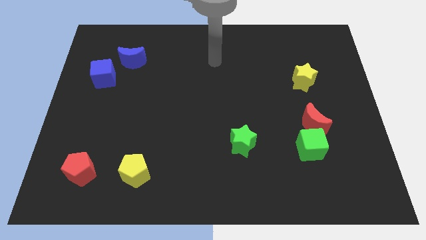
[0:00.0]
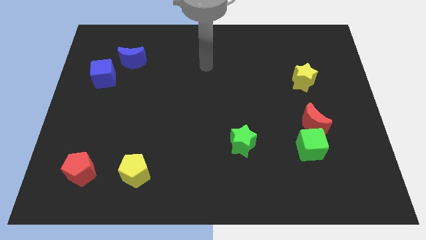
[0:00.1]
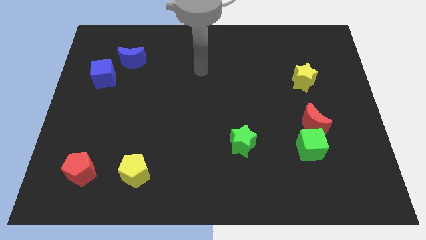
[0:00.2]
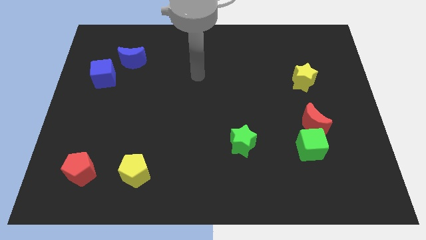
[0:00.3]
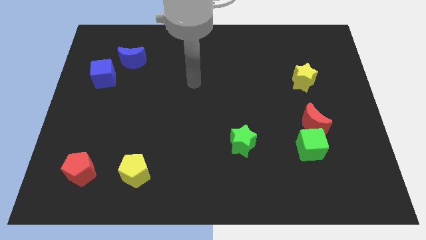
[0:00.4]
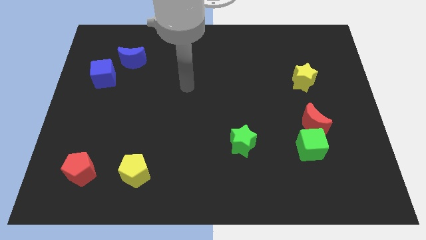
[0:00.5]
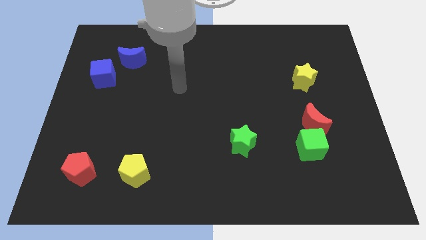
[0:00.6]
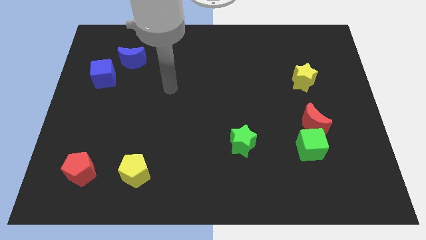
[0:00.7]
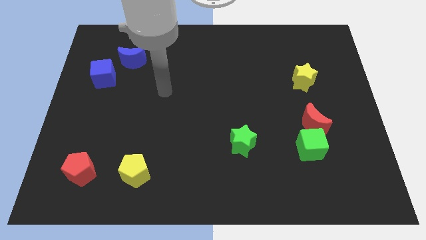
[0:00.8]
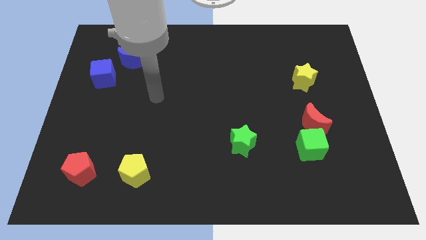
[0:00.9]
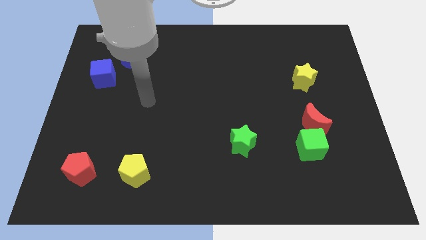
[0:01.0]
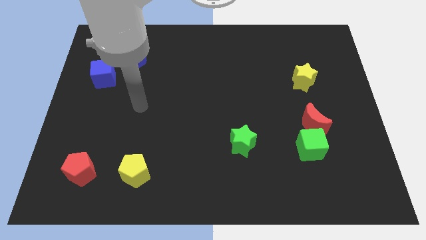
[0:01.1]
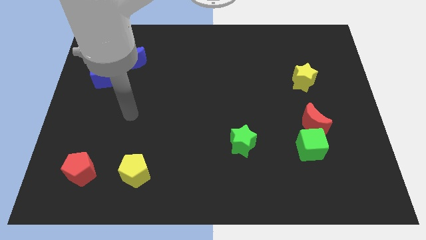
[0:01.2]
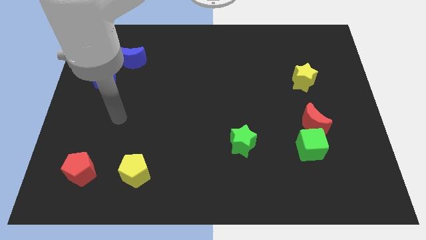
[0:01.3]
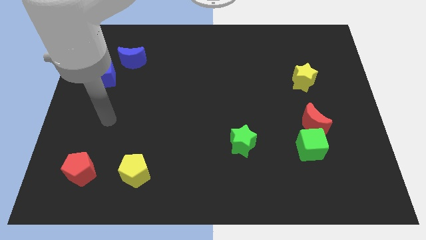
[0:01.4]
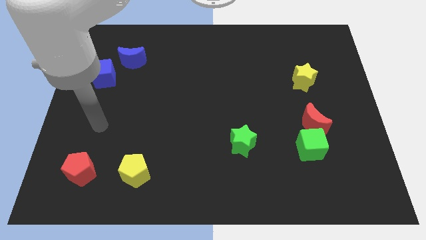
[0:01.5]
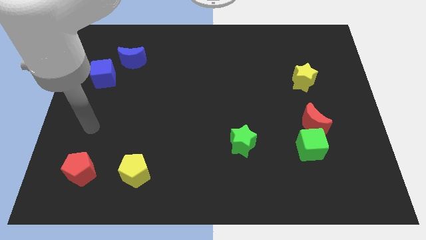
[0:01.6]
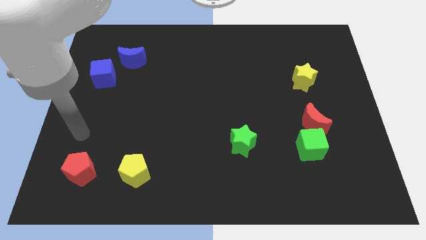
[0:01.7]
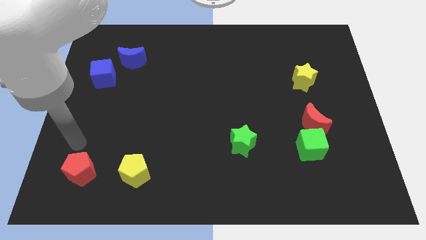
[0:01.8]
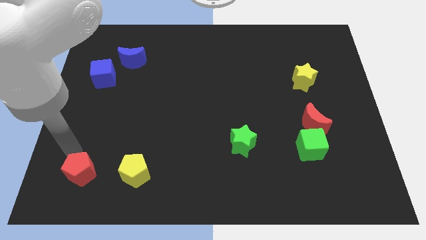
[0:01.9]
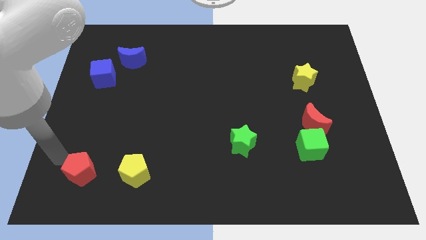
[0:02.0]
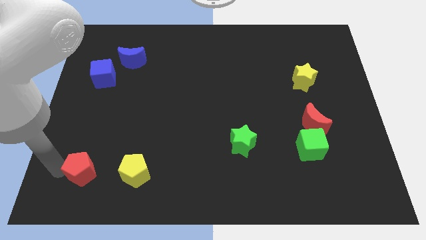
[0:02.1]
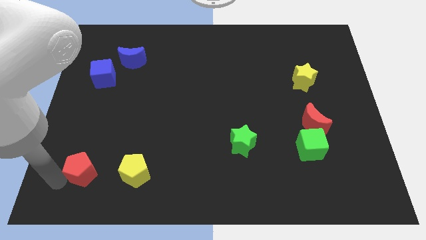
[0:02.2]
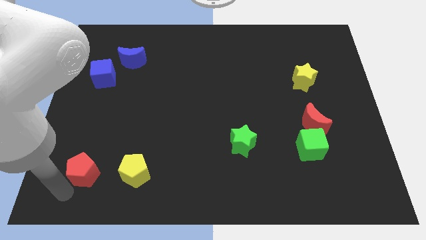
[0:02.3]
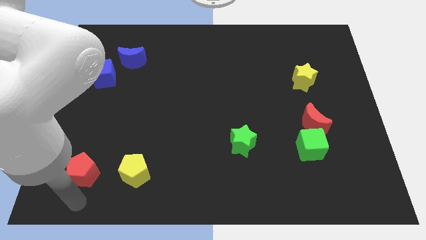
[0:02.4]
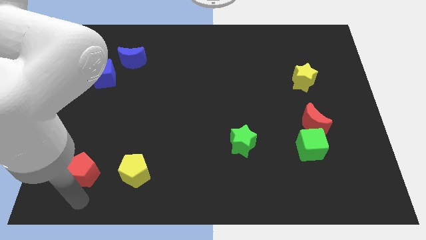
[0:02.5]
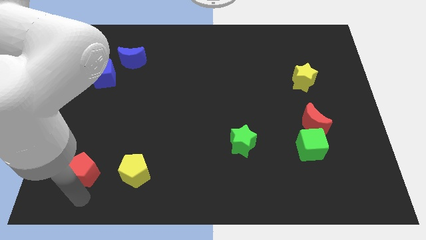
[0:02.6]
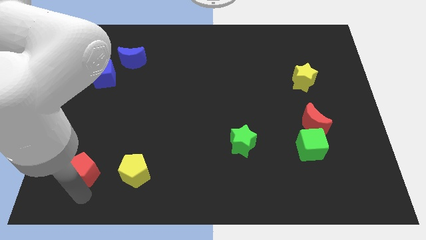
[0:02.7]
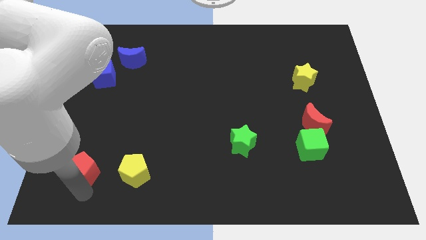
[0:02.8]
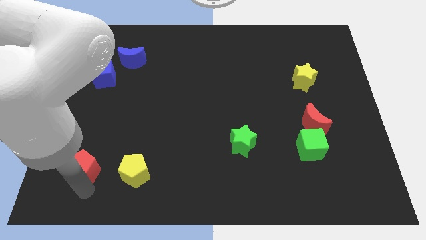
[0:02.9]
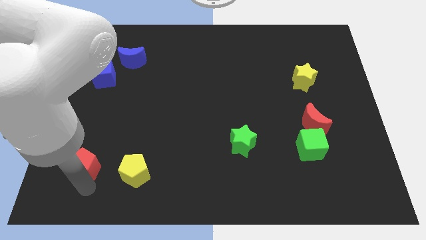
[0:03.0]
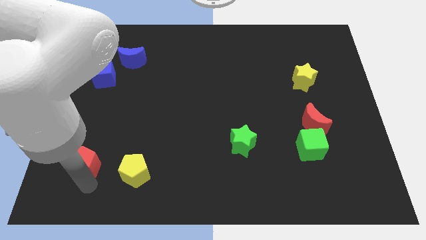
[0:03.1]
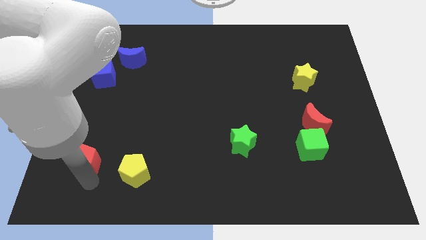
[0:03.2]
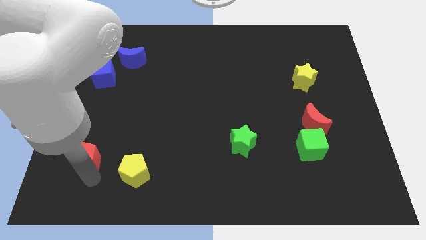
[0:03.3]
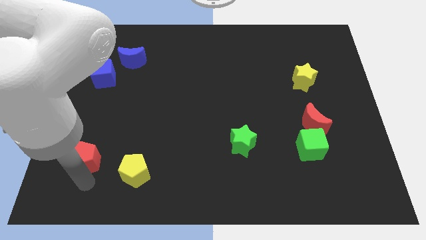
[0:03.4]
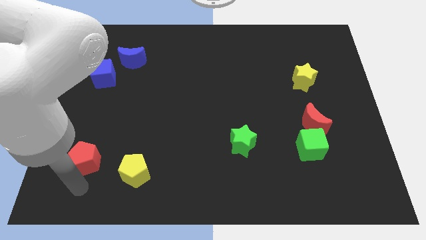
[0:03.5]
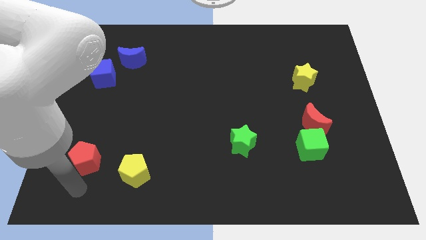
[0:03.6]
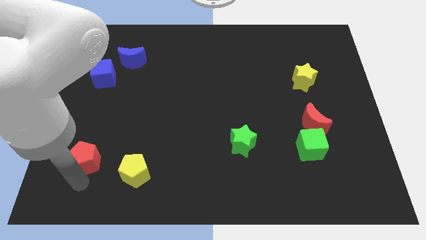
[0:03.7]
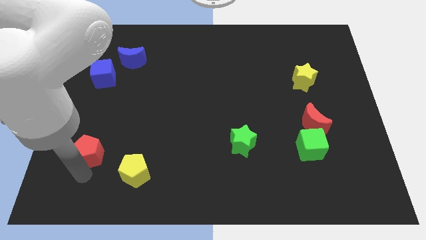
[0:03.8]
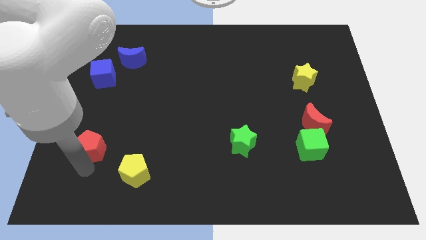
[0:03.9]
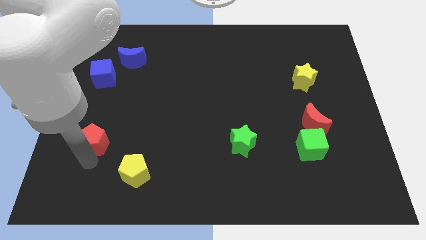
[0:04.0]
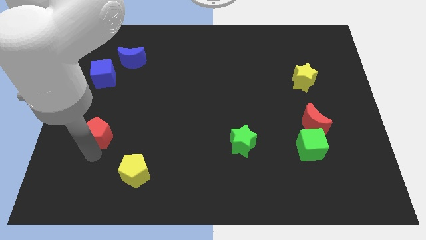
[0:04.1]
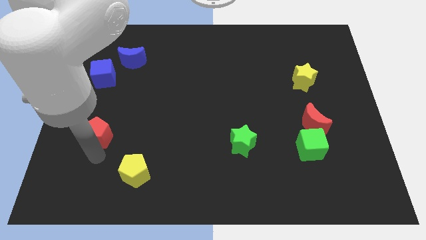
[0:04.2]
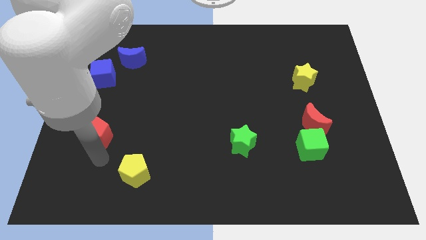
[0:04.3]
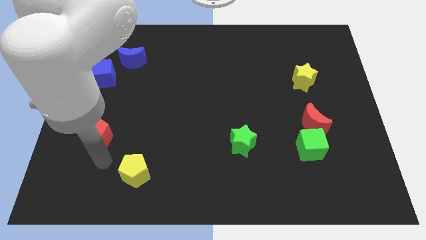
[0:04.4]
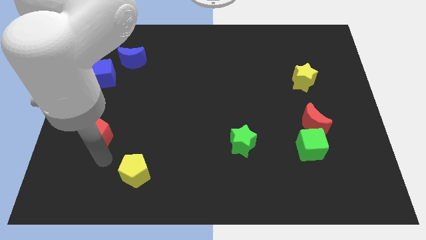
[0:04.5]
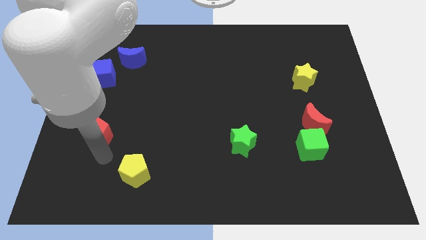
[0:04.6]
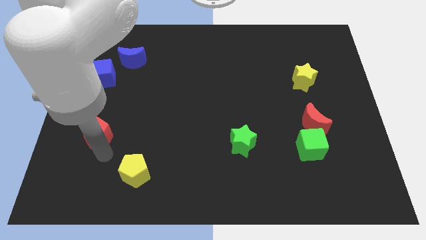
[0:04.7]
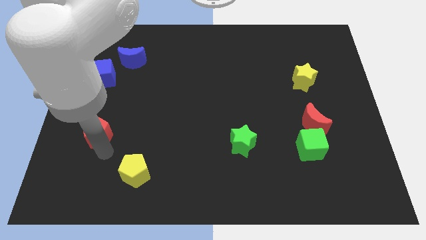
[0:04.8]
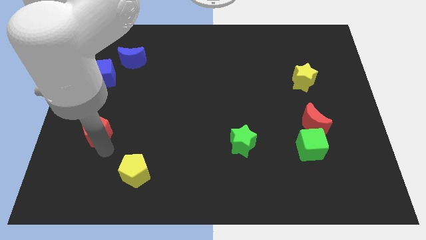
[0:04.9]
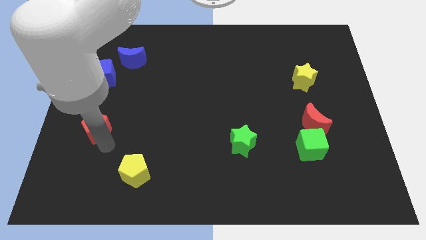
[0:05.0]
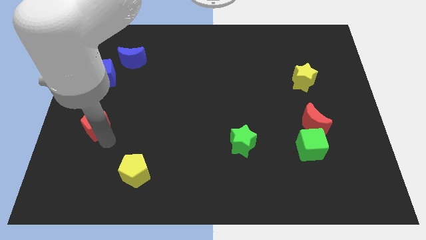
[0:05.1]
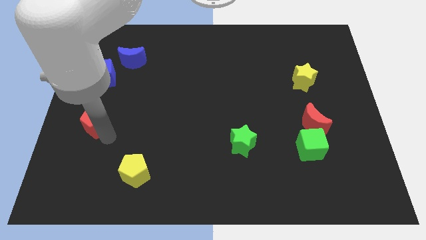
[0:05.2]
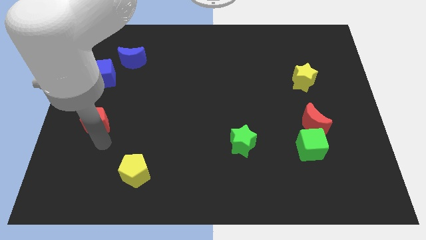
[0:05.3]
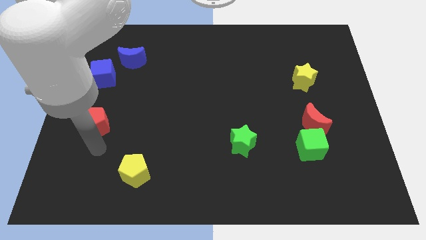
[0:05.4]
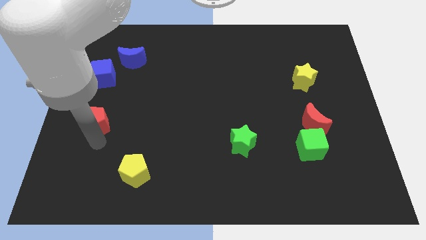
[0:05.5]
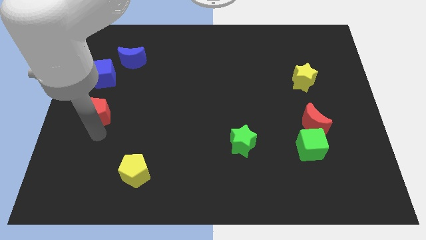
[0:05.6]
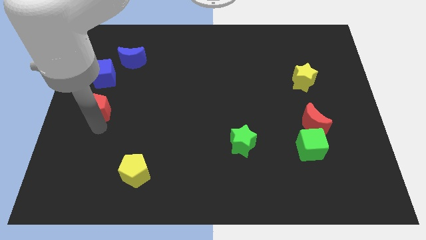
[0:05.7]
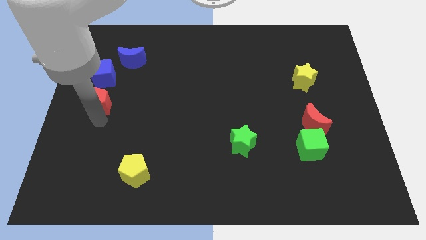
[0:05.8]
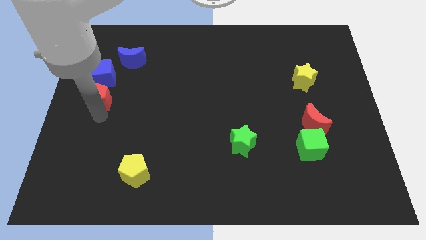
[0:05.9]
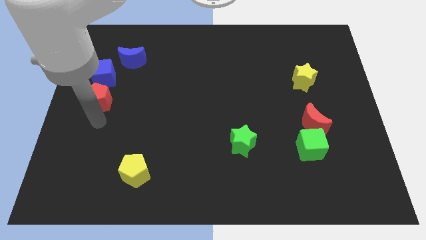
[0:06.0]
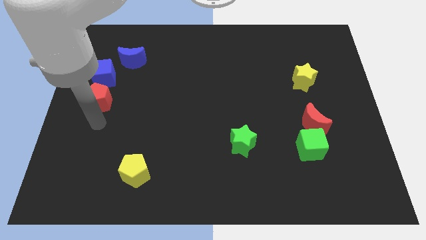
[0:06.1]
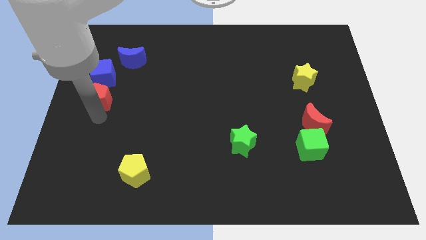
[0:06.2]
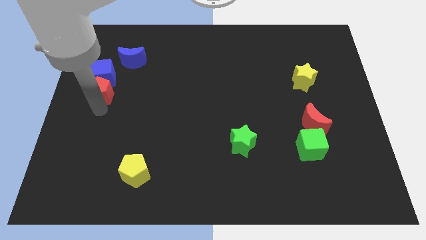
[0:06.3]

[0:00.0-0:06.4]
push the red pentagon towards the blue cube
